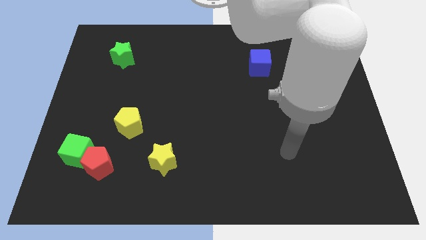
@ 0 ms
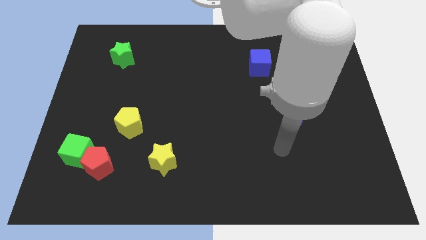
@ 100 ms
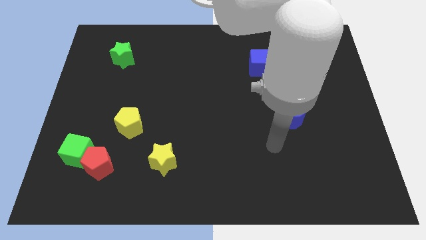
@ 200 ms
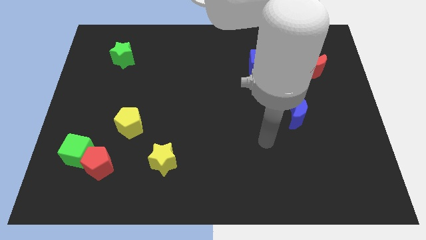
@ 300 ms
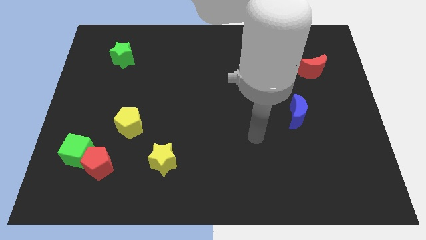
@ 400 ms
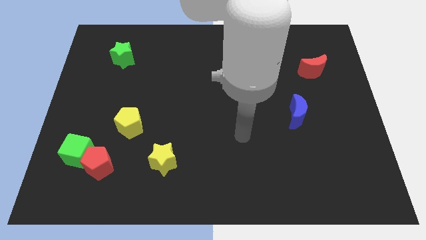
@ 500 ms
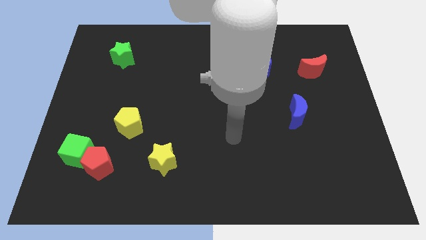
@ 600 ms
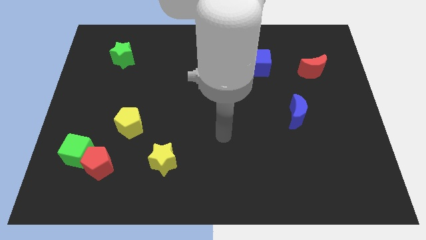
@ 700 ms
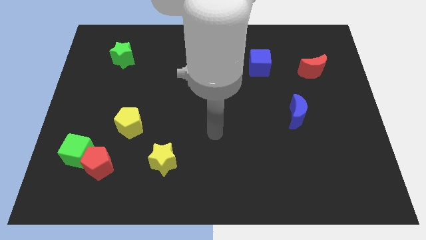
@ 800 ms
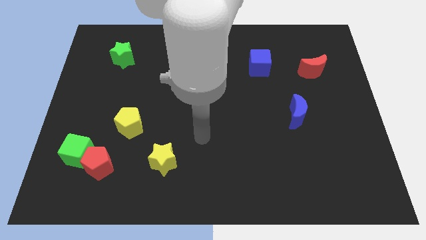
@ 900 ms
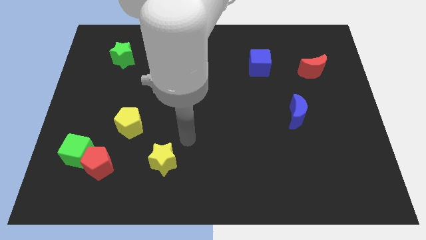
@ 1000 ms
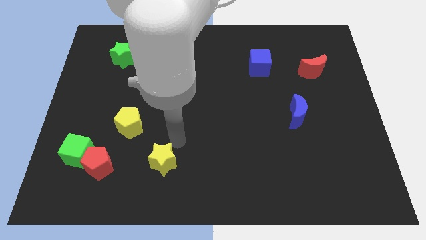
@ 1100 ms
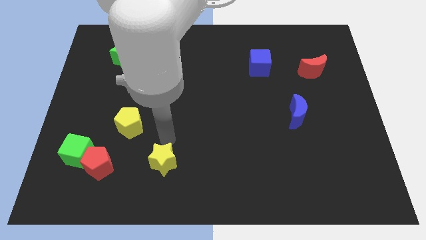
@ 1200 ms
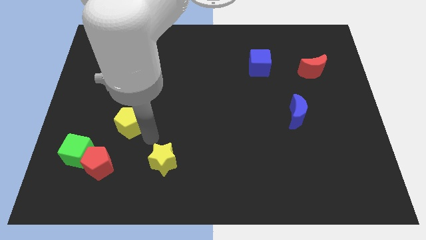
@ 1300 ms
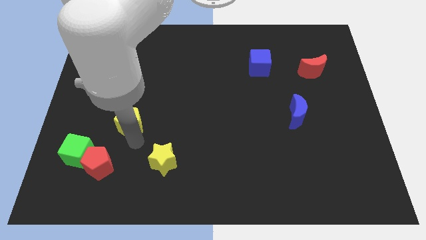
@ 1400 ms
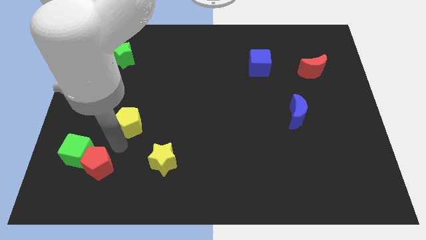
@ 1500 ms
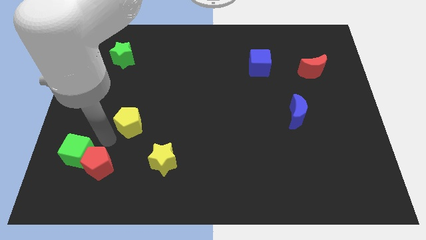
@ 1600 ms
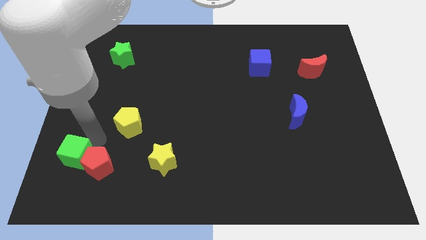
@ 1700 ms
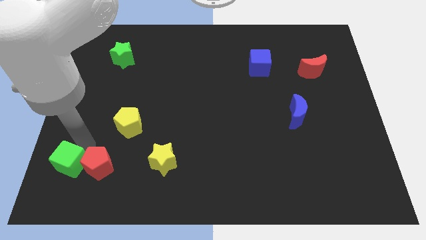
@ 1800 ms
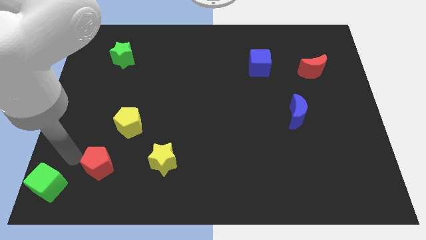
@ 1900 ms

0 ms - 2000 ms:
pull the red pentagon apart from the green cube

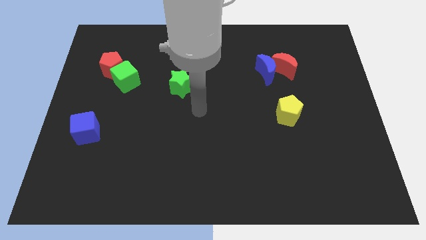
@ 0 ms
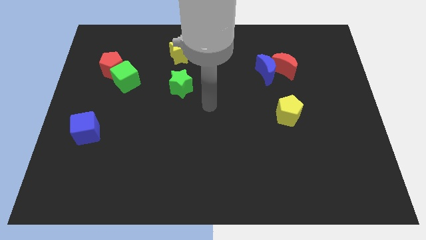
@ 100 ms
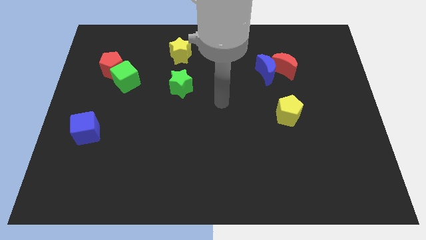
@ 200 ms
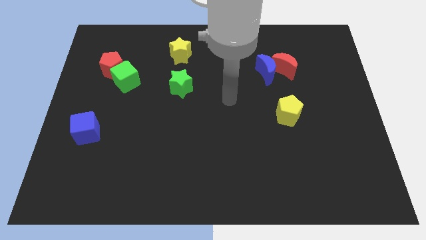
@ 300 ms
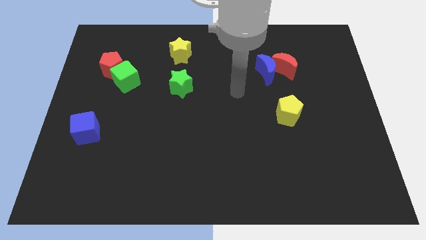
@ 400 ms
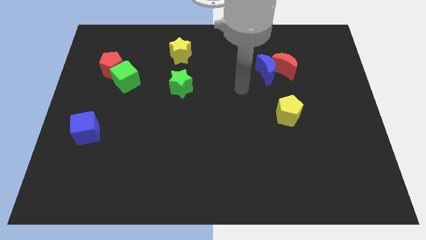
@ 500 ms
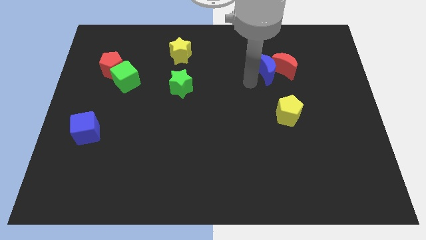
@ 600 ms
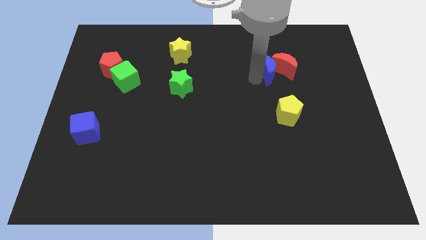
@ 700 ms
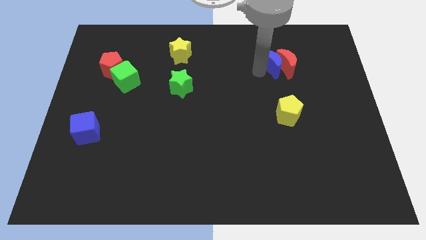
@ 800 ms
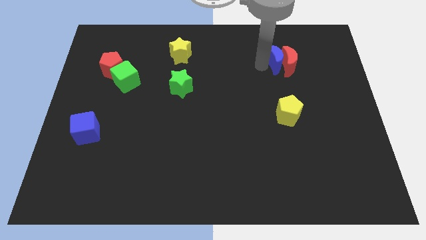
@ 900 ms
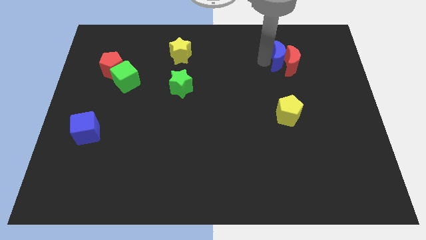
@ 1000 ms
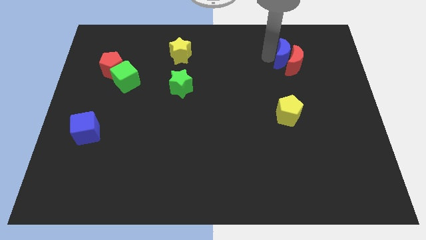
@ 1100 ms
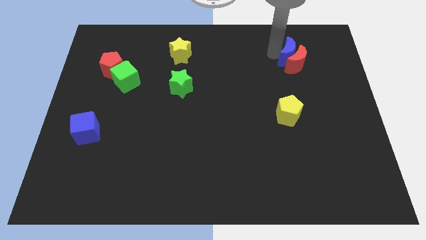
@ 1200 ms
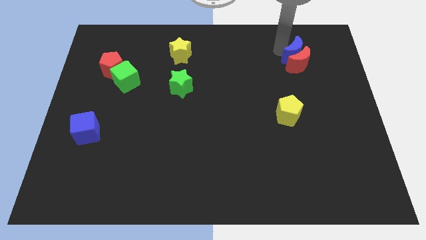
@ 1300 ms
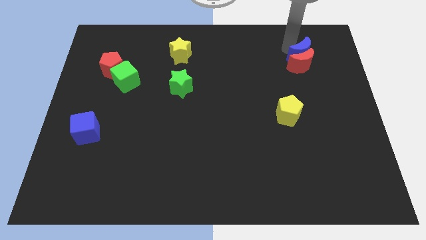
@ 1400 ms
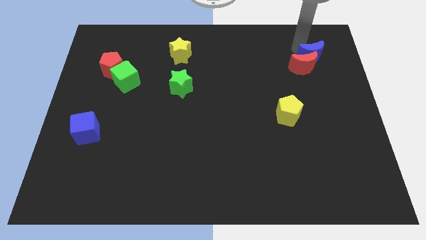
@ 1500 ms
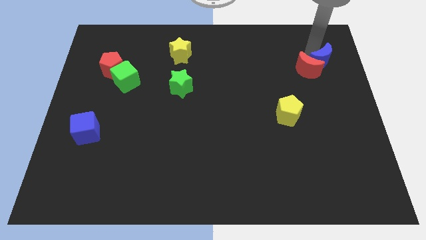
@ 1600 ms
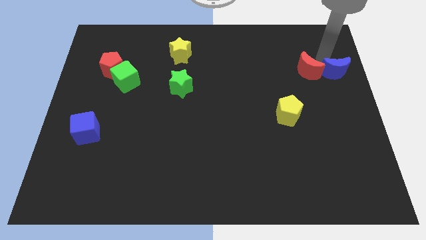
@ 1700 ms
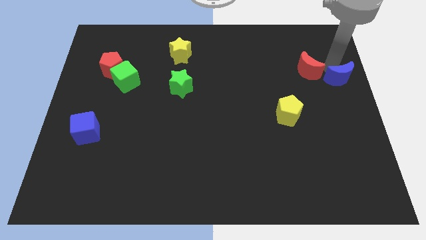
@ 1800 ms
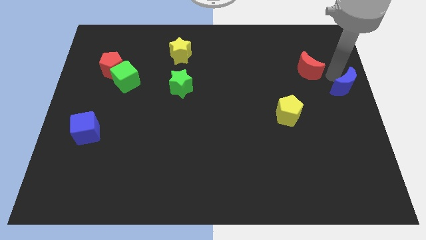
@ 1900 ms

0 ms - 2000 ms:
separate the red moon from the blue moon

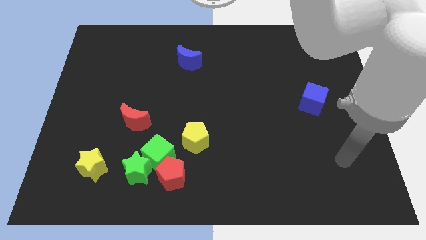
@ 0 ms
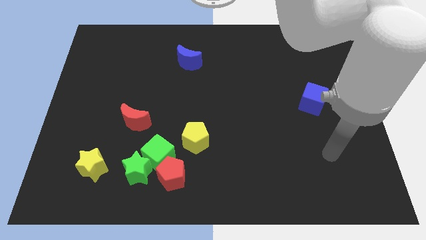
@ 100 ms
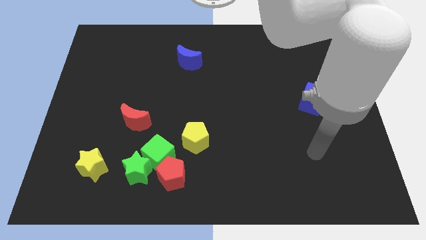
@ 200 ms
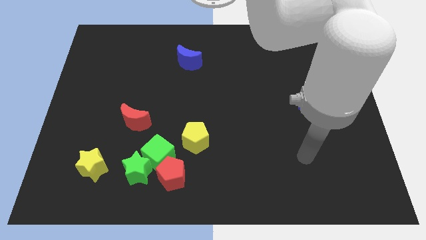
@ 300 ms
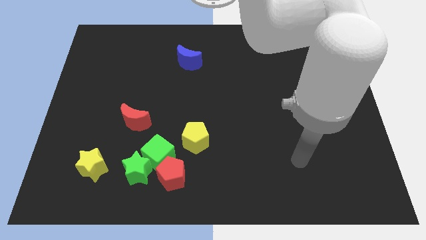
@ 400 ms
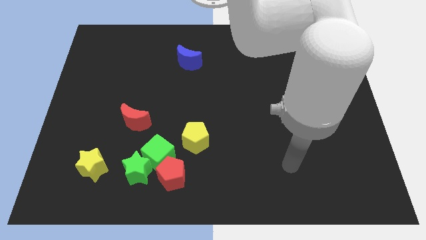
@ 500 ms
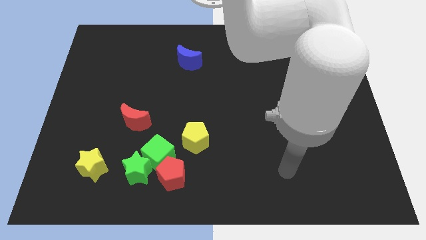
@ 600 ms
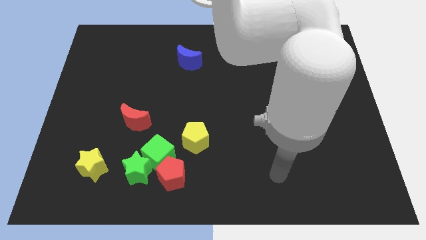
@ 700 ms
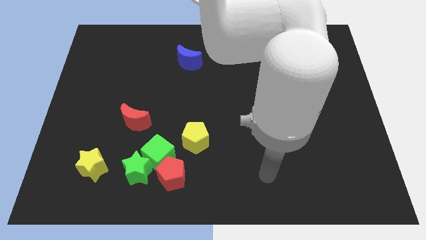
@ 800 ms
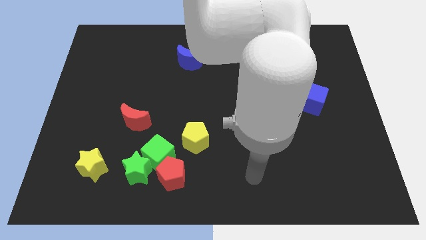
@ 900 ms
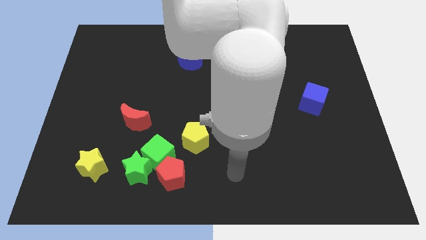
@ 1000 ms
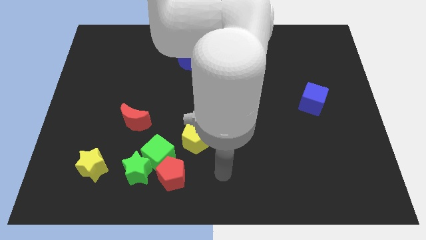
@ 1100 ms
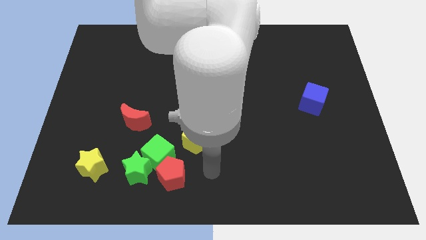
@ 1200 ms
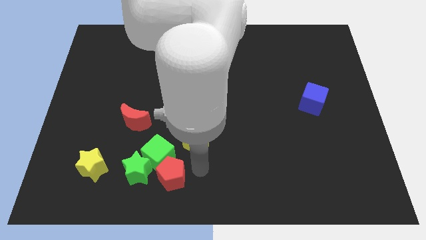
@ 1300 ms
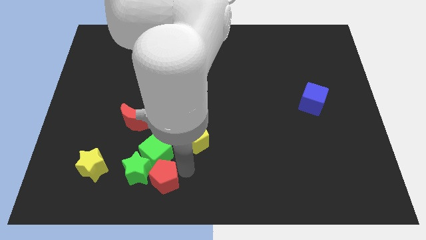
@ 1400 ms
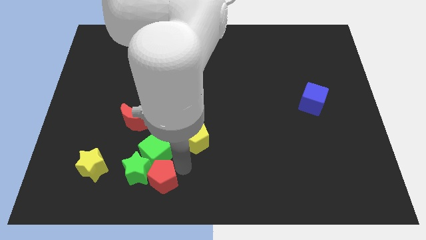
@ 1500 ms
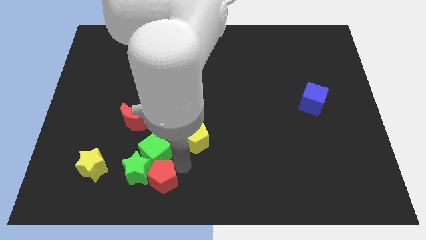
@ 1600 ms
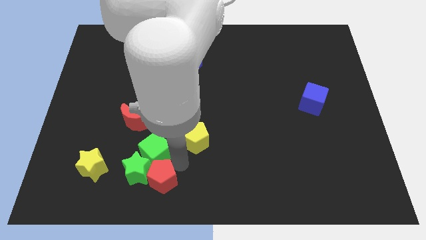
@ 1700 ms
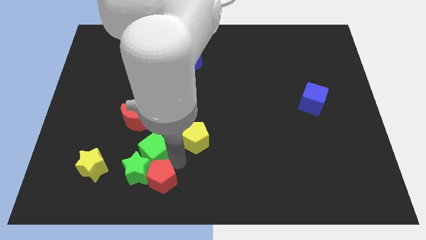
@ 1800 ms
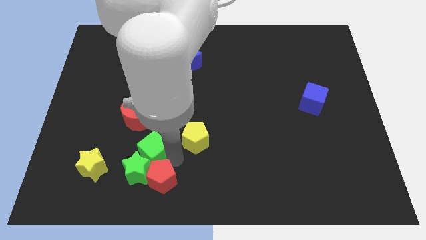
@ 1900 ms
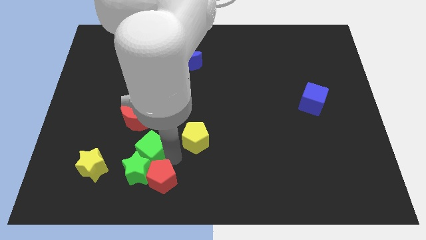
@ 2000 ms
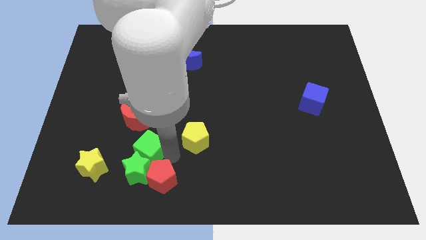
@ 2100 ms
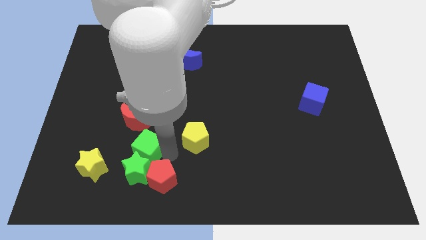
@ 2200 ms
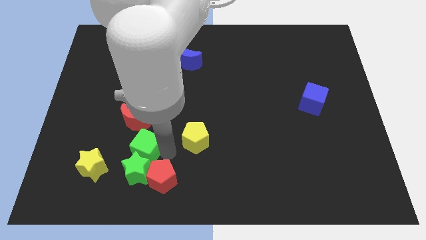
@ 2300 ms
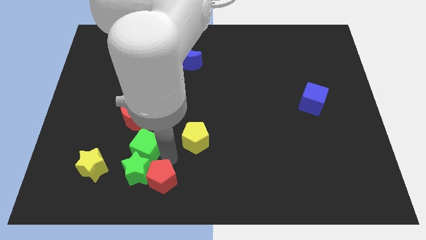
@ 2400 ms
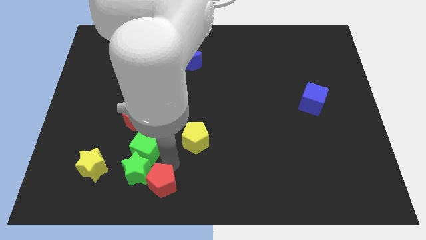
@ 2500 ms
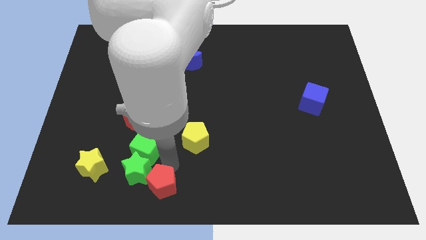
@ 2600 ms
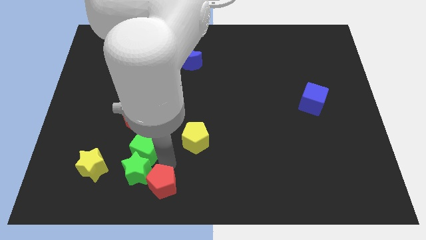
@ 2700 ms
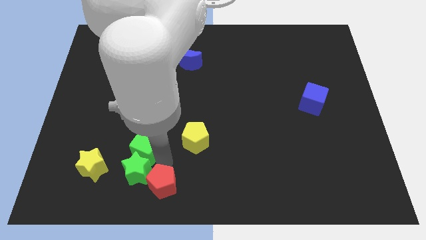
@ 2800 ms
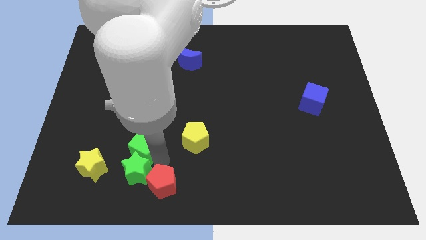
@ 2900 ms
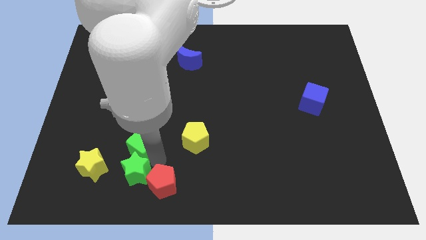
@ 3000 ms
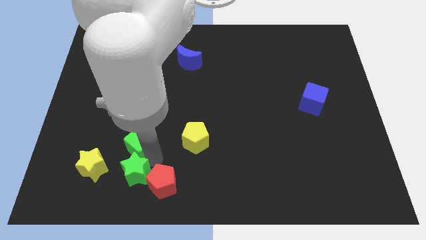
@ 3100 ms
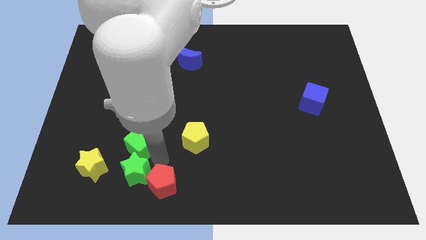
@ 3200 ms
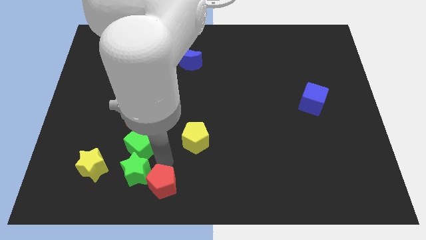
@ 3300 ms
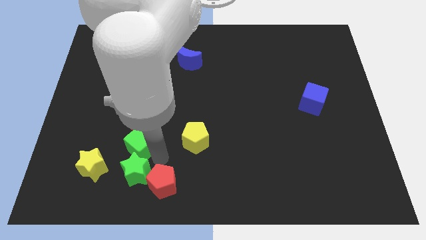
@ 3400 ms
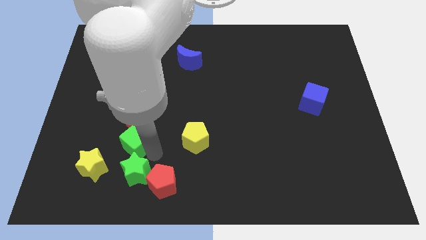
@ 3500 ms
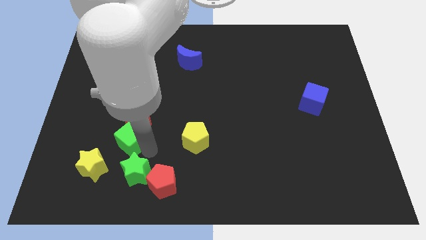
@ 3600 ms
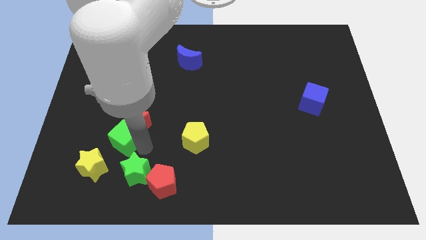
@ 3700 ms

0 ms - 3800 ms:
separate the green cube from the green star, red pentagon, and yellow pentagon

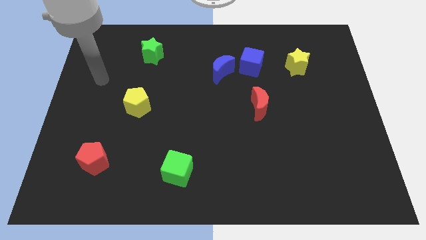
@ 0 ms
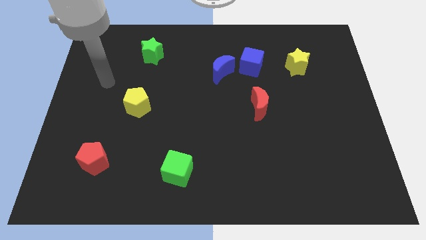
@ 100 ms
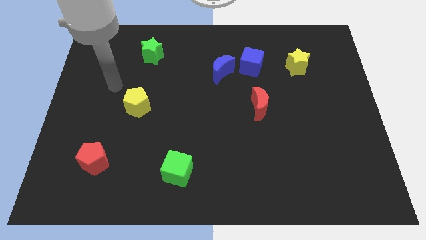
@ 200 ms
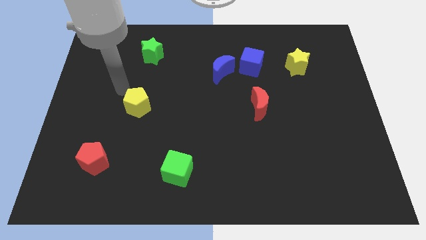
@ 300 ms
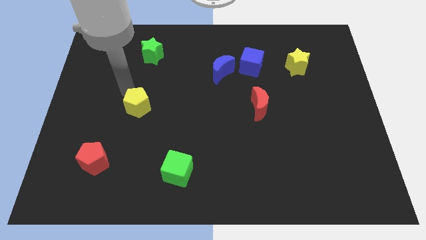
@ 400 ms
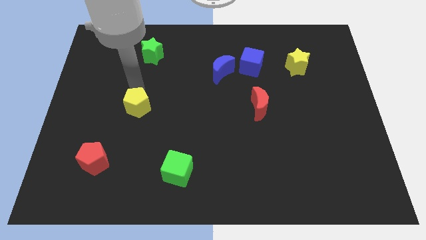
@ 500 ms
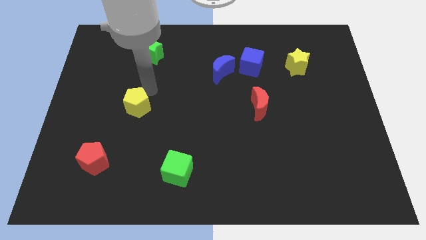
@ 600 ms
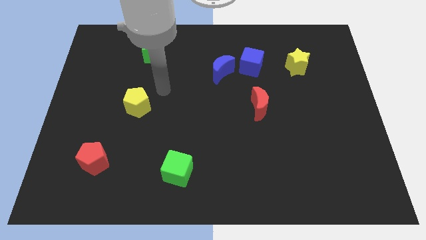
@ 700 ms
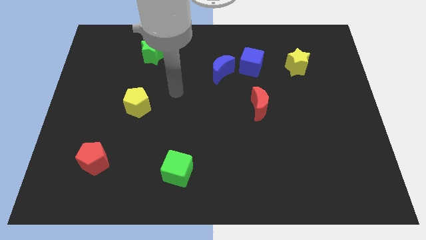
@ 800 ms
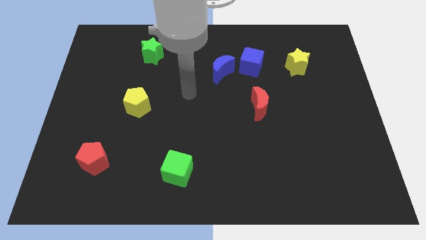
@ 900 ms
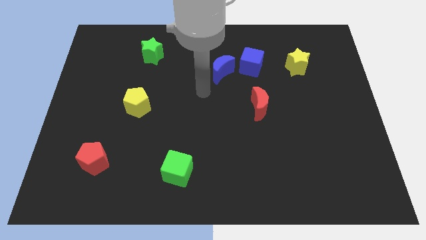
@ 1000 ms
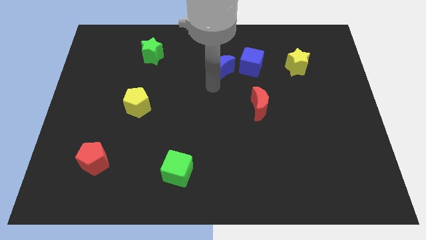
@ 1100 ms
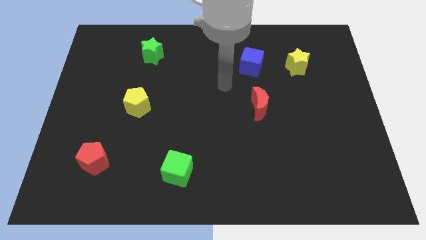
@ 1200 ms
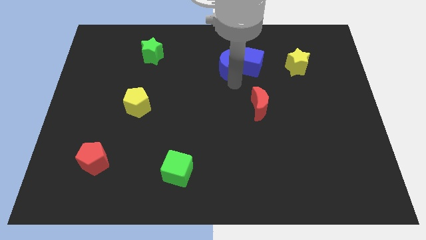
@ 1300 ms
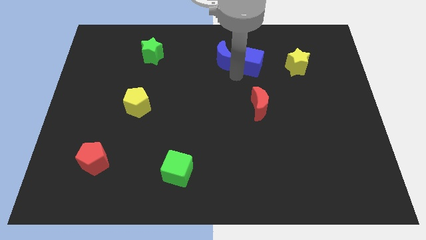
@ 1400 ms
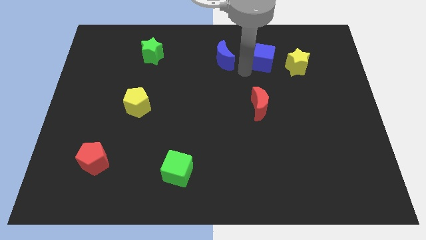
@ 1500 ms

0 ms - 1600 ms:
separate the blue moon from the blue cube
